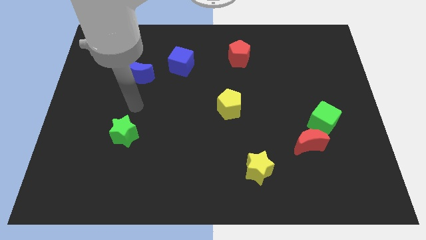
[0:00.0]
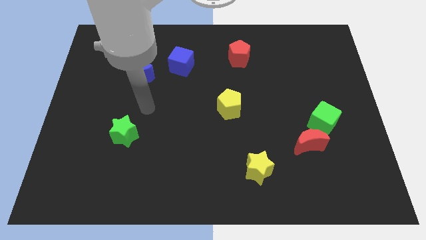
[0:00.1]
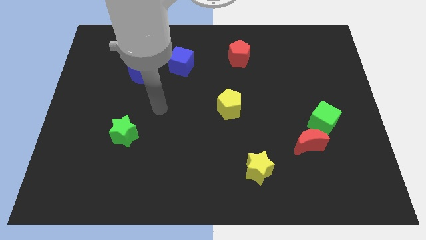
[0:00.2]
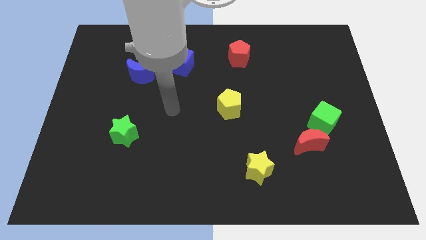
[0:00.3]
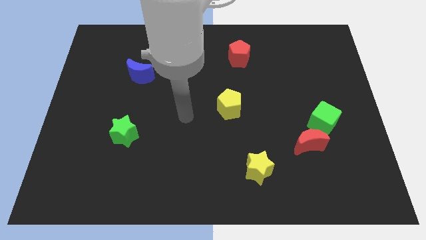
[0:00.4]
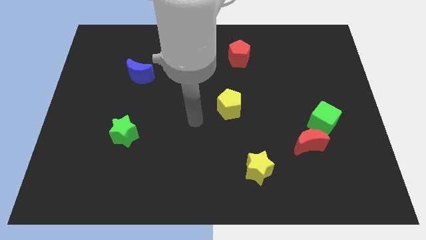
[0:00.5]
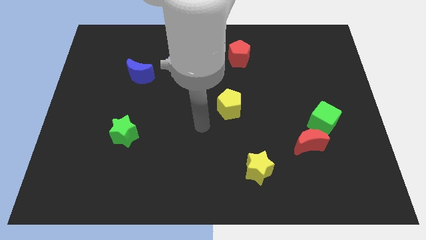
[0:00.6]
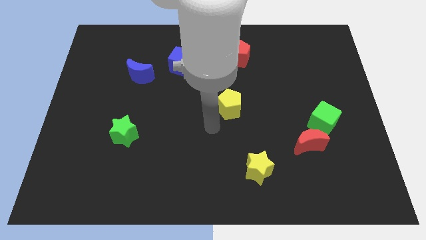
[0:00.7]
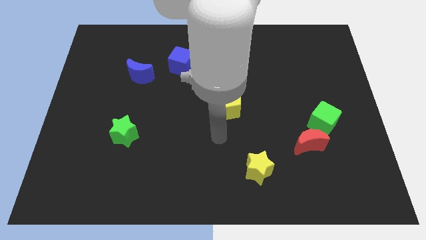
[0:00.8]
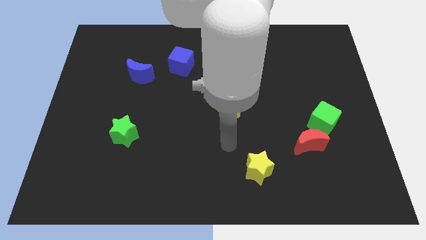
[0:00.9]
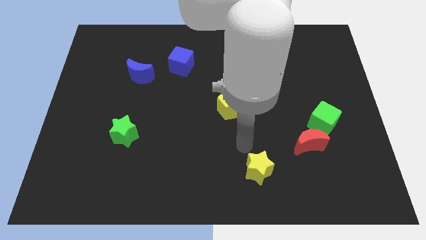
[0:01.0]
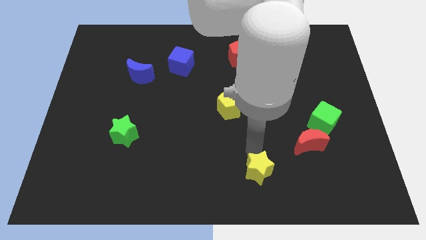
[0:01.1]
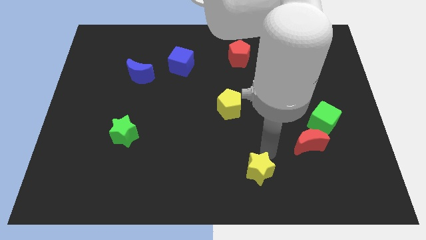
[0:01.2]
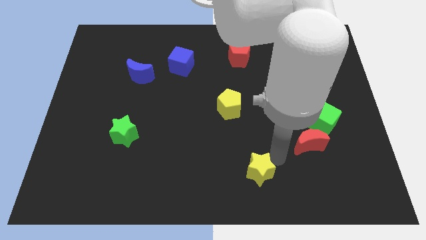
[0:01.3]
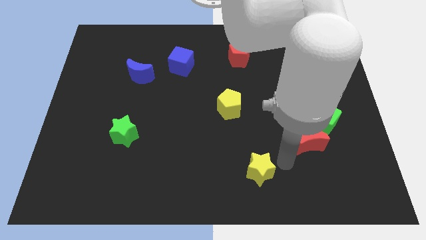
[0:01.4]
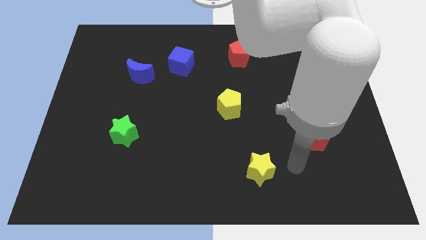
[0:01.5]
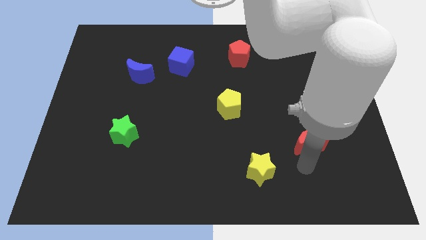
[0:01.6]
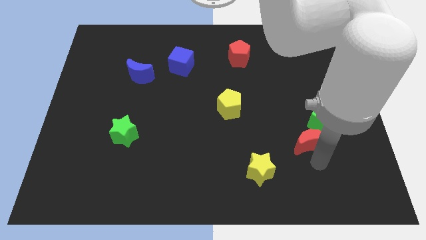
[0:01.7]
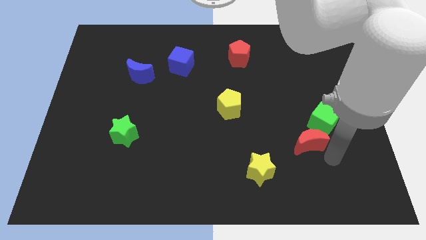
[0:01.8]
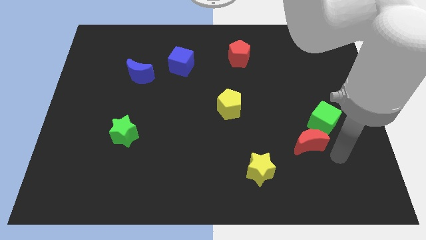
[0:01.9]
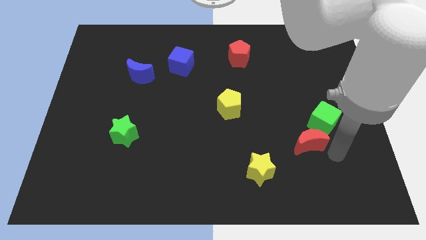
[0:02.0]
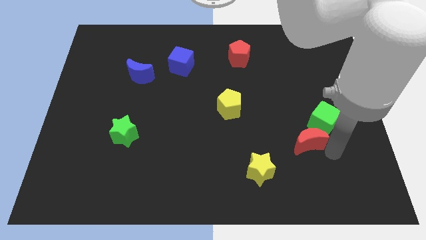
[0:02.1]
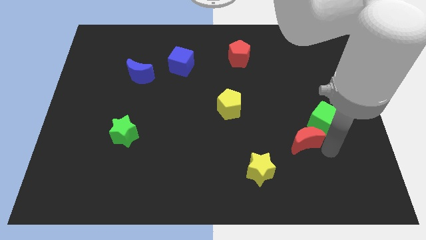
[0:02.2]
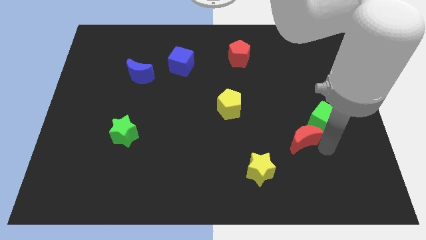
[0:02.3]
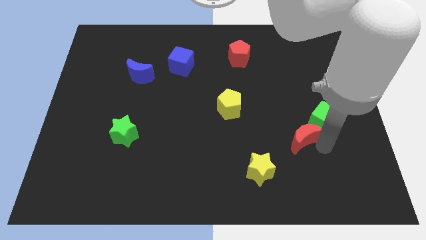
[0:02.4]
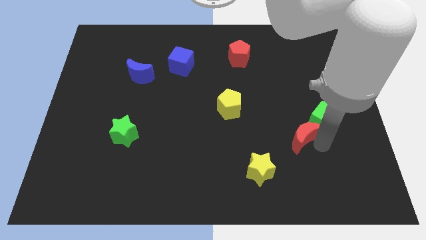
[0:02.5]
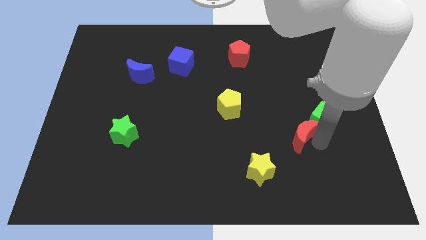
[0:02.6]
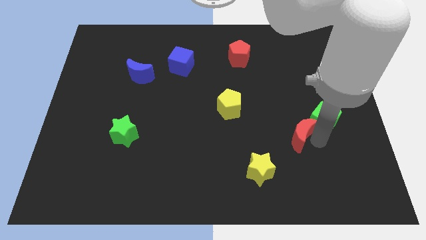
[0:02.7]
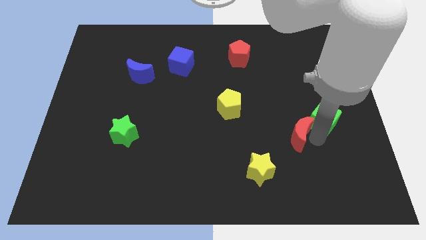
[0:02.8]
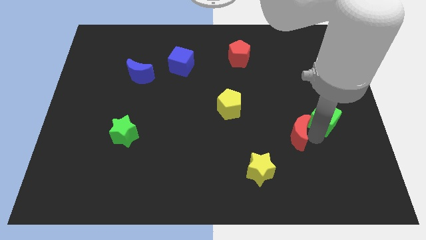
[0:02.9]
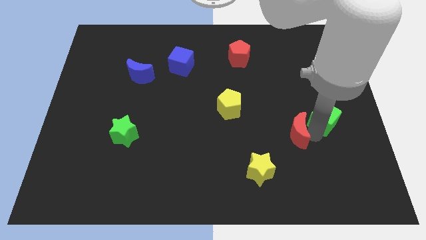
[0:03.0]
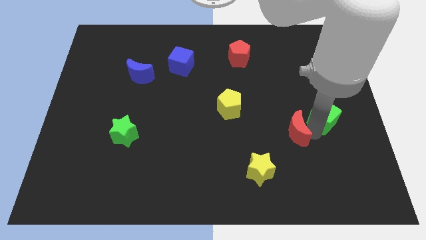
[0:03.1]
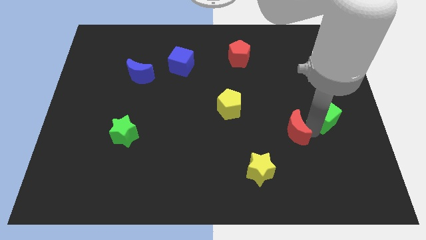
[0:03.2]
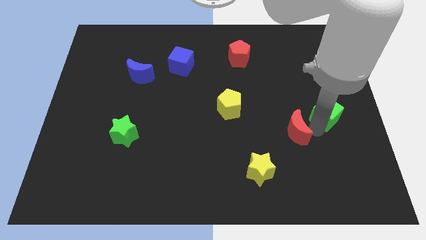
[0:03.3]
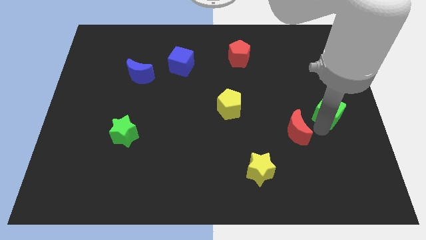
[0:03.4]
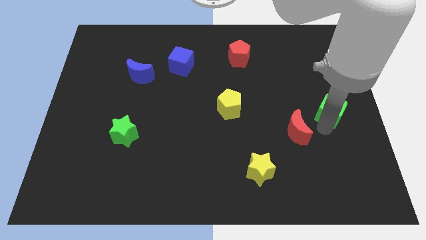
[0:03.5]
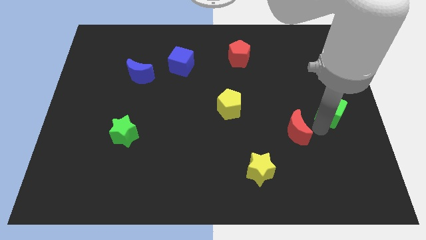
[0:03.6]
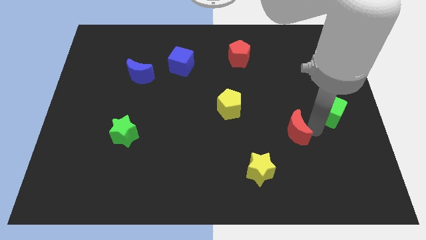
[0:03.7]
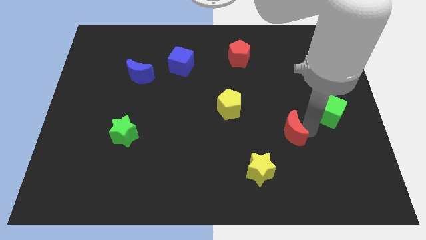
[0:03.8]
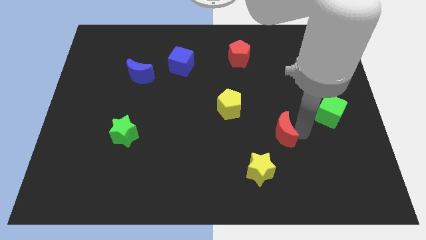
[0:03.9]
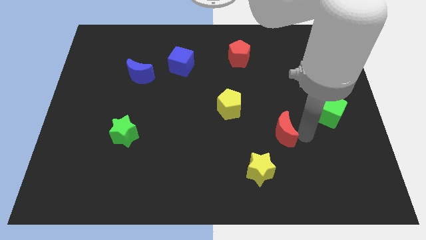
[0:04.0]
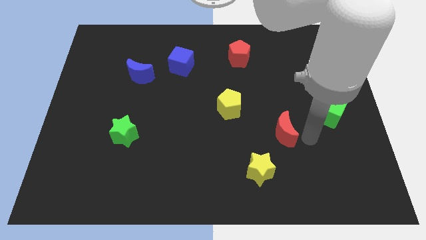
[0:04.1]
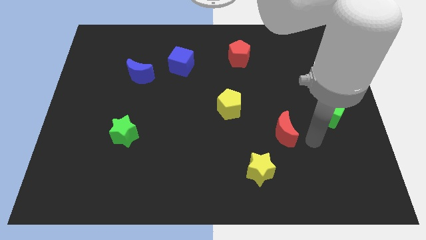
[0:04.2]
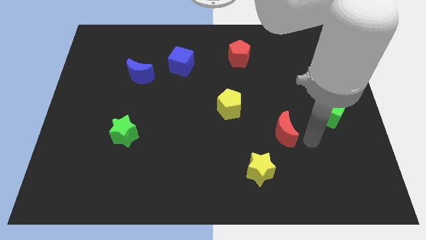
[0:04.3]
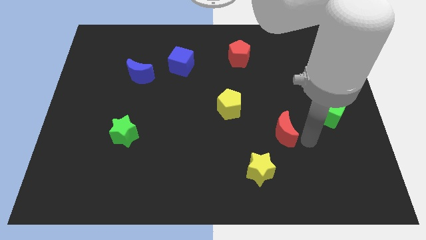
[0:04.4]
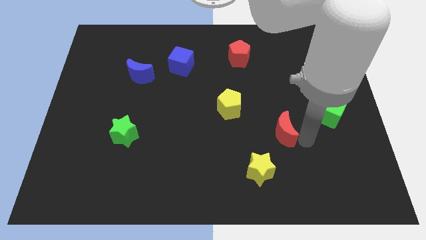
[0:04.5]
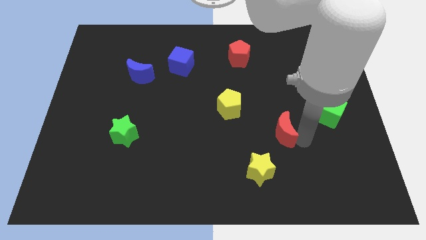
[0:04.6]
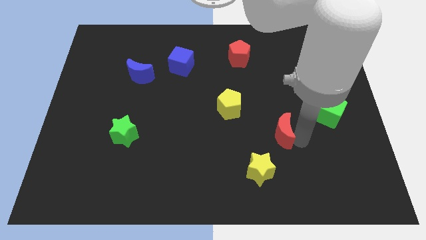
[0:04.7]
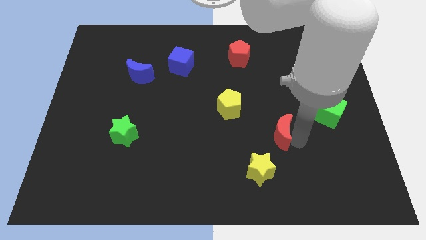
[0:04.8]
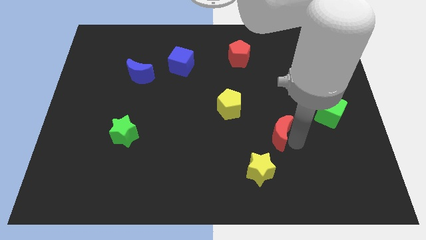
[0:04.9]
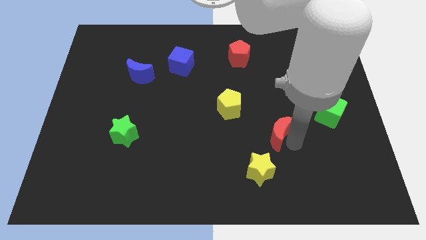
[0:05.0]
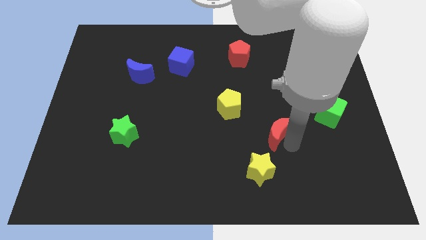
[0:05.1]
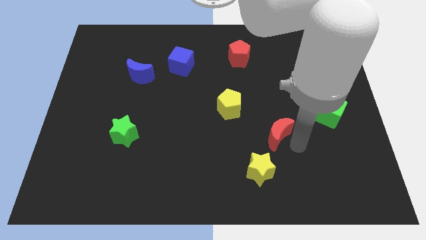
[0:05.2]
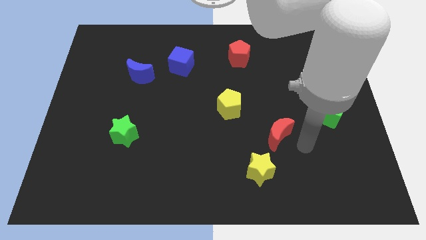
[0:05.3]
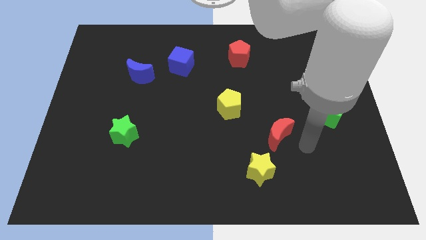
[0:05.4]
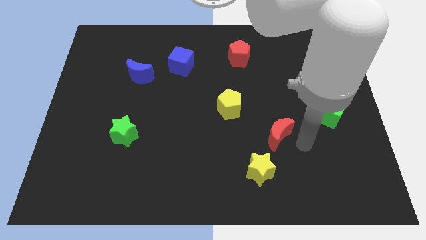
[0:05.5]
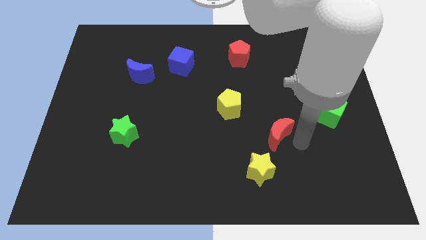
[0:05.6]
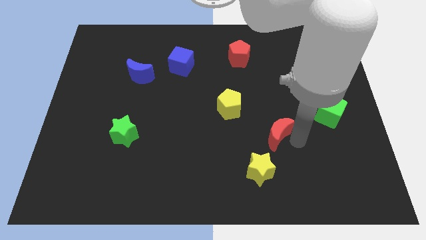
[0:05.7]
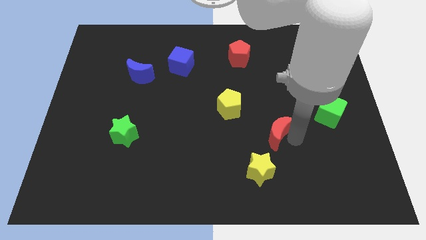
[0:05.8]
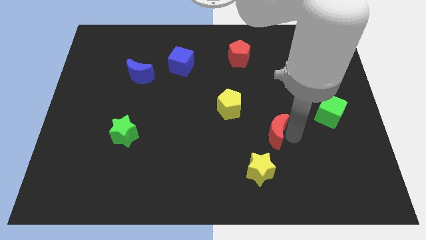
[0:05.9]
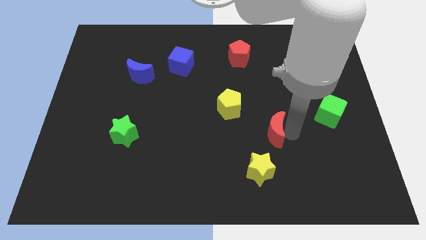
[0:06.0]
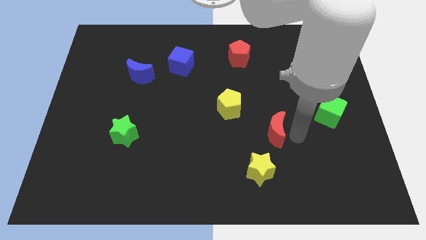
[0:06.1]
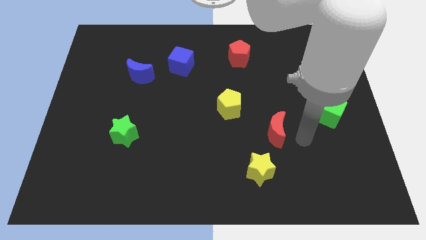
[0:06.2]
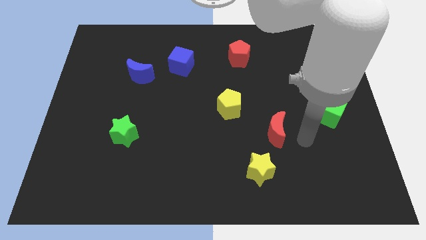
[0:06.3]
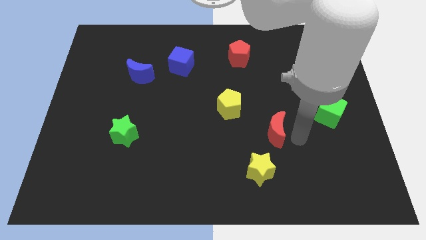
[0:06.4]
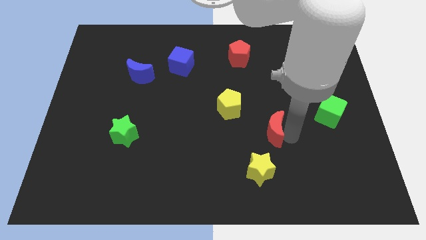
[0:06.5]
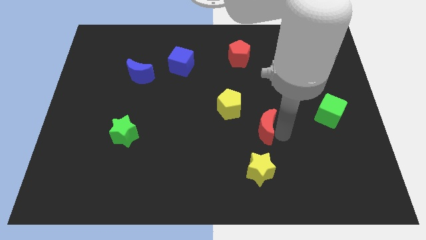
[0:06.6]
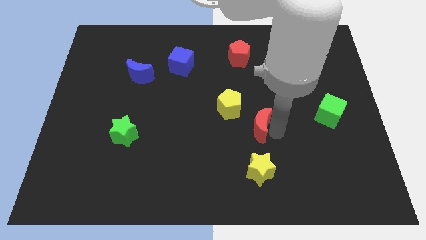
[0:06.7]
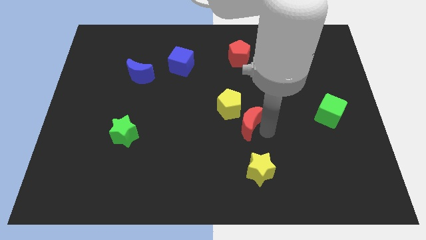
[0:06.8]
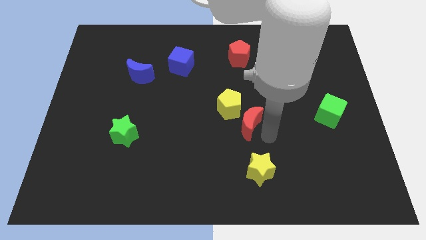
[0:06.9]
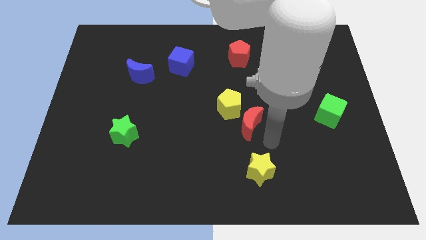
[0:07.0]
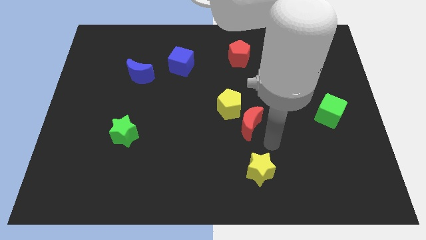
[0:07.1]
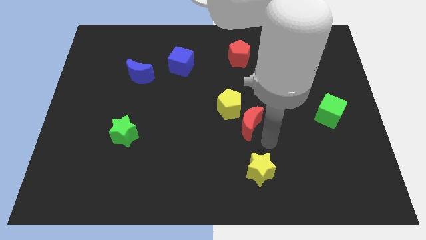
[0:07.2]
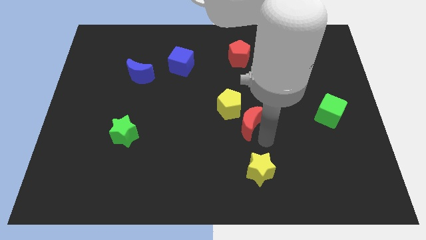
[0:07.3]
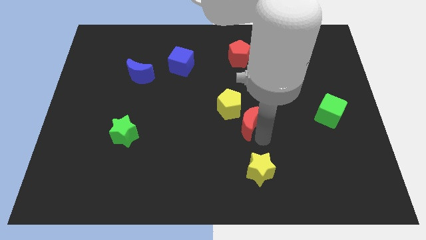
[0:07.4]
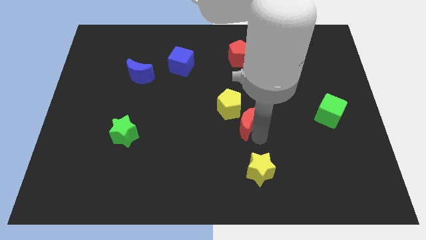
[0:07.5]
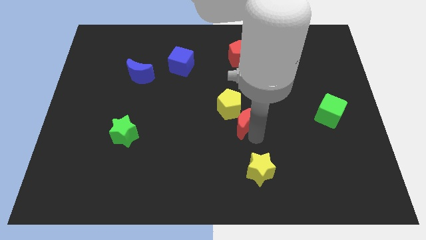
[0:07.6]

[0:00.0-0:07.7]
put the red moon towards the yellow pentagon
